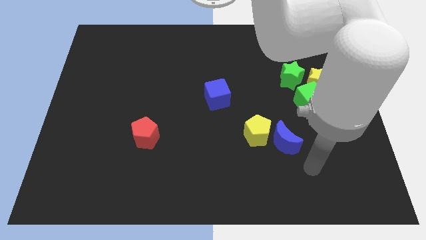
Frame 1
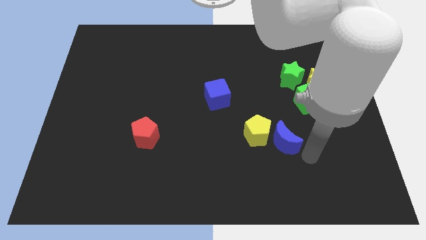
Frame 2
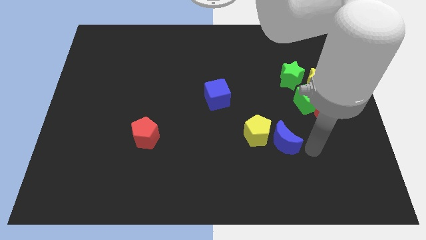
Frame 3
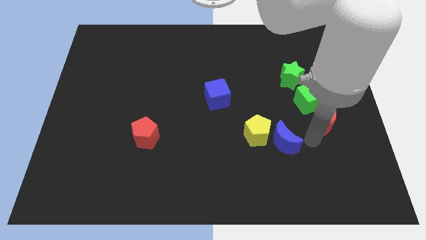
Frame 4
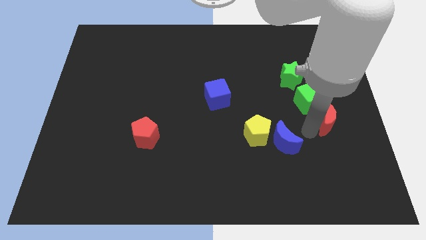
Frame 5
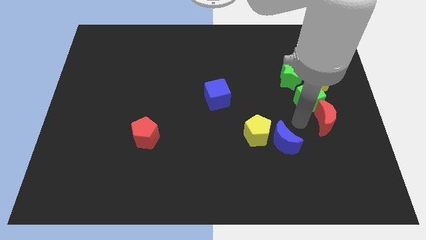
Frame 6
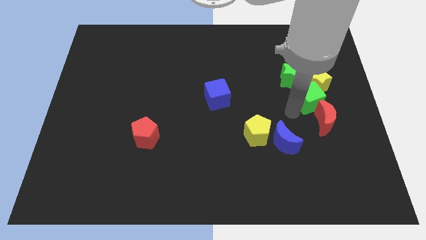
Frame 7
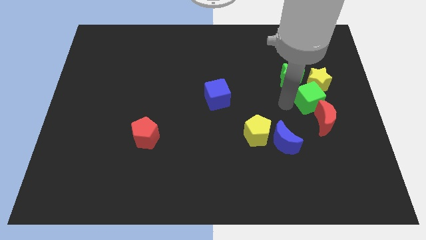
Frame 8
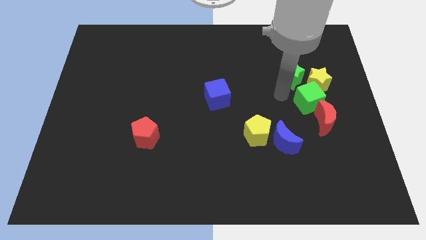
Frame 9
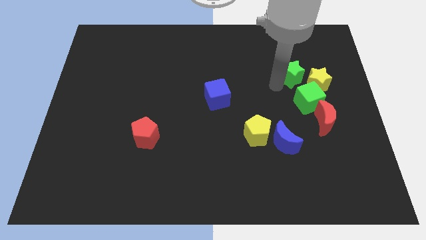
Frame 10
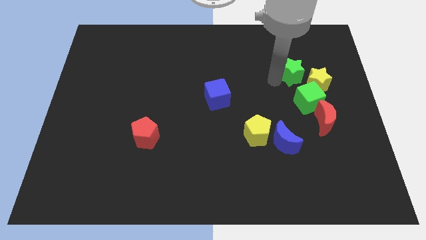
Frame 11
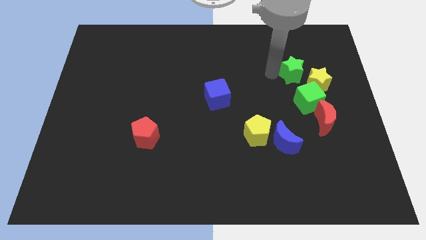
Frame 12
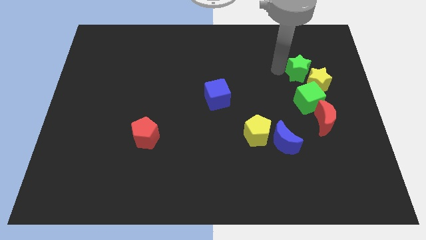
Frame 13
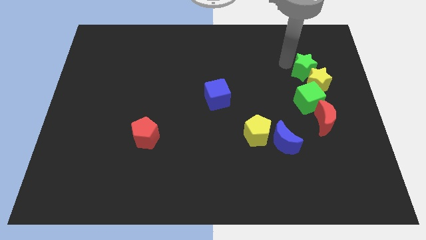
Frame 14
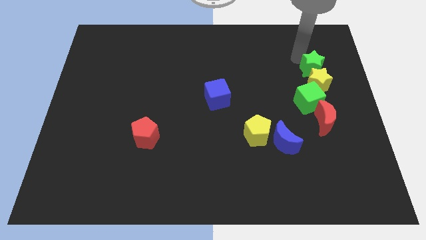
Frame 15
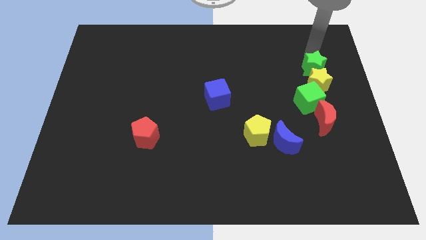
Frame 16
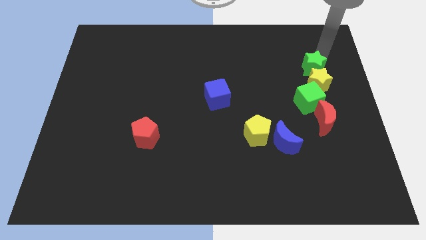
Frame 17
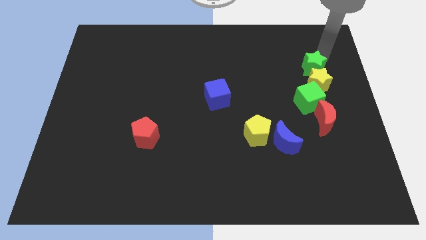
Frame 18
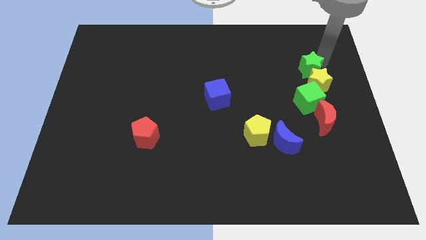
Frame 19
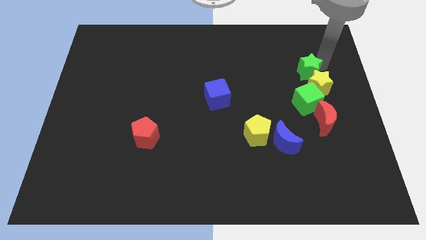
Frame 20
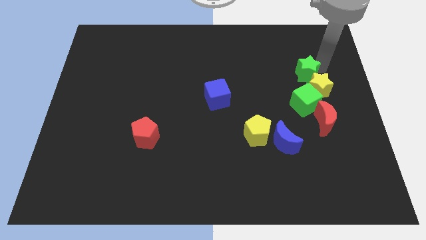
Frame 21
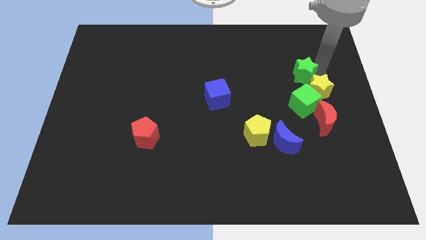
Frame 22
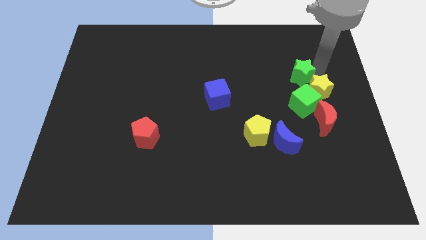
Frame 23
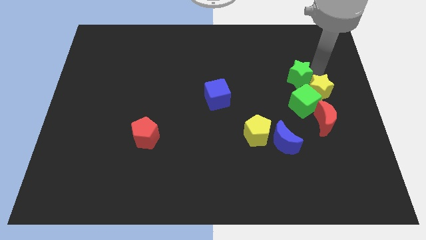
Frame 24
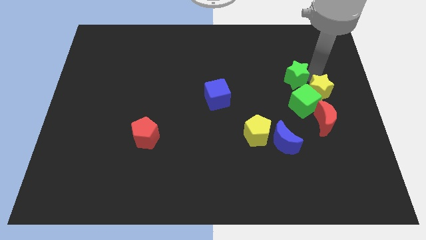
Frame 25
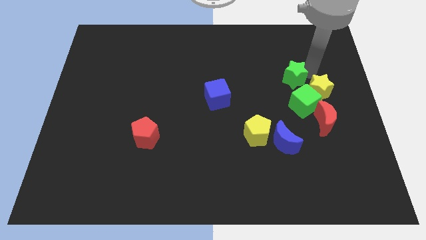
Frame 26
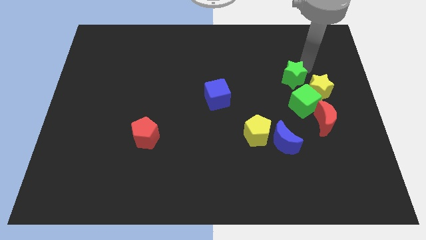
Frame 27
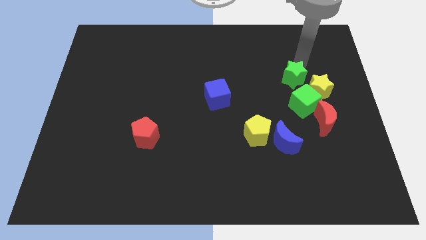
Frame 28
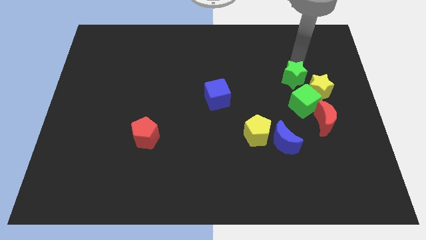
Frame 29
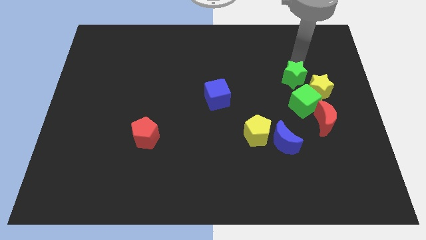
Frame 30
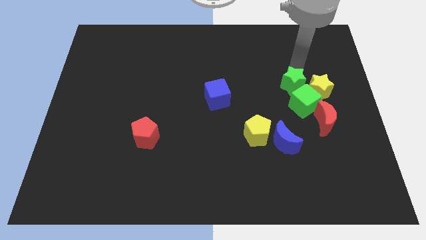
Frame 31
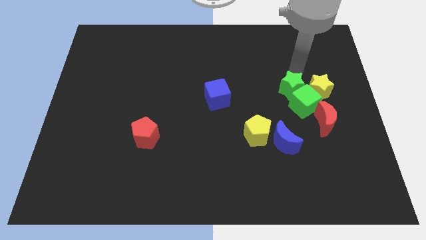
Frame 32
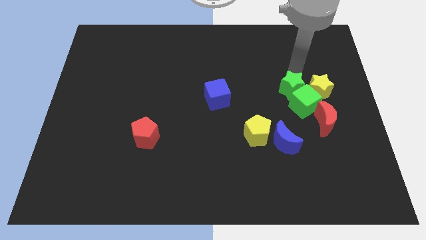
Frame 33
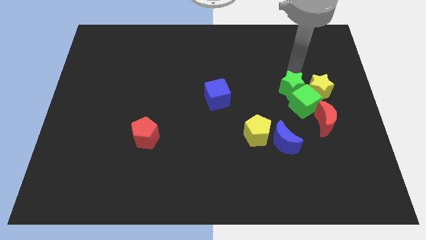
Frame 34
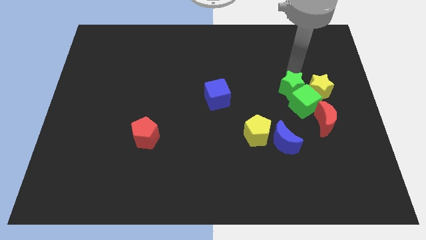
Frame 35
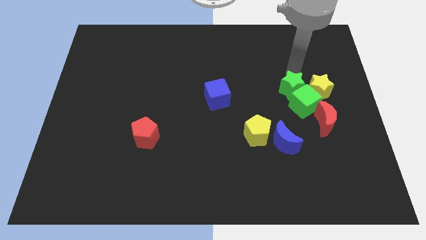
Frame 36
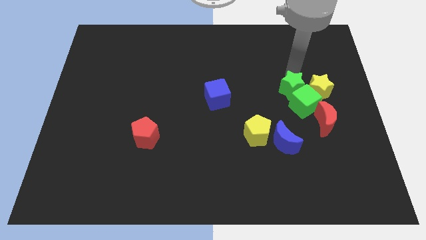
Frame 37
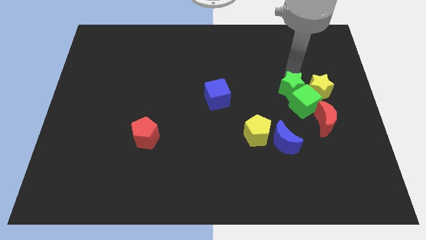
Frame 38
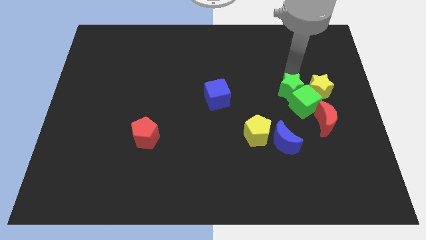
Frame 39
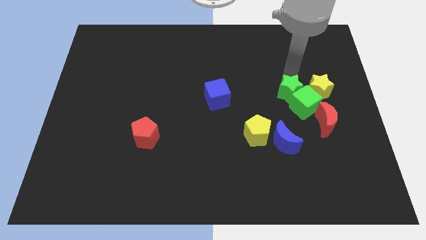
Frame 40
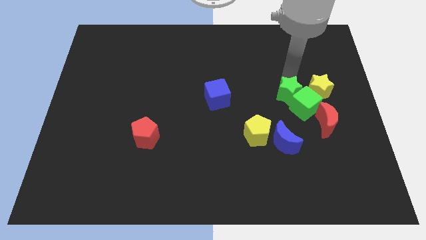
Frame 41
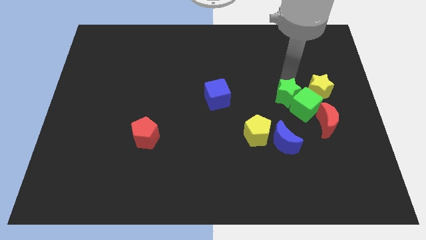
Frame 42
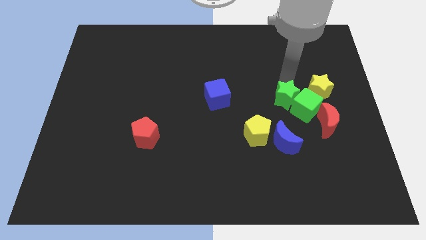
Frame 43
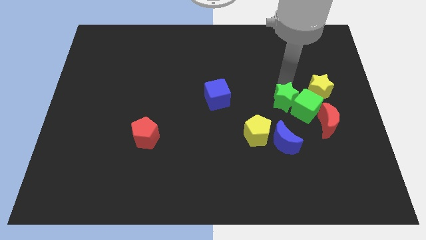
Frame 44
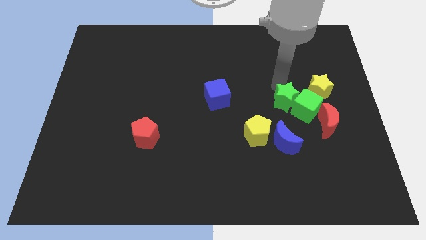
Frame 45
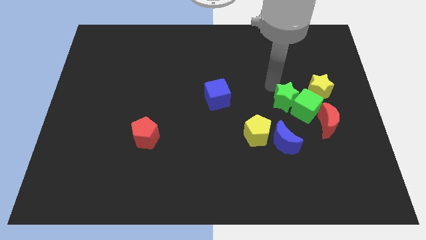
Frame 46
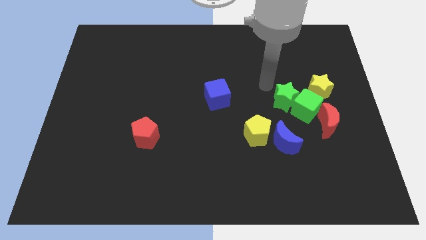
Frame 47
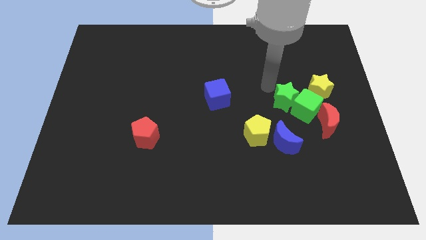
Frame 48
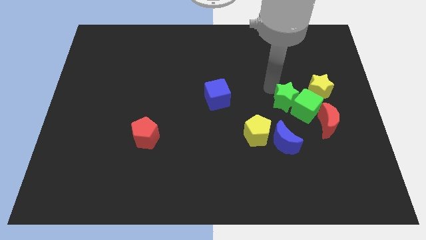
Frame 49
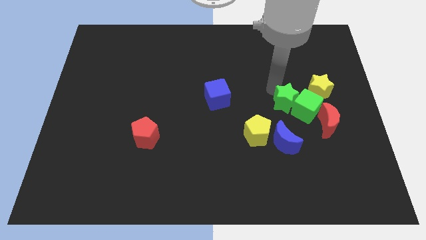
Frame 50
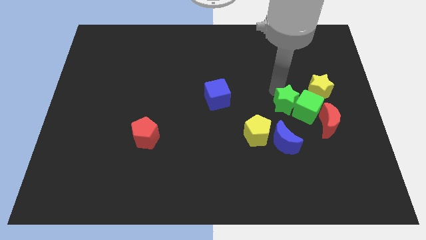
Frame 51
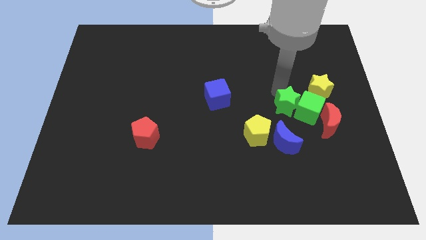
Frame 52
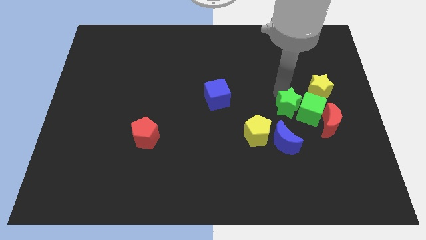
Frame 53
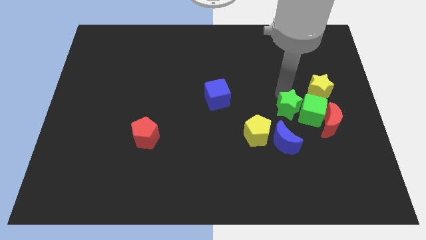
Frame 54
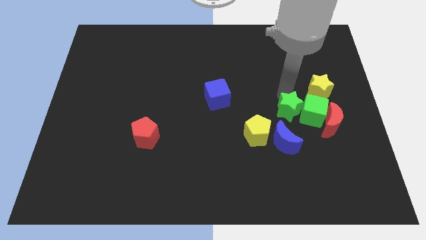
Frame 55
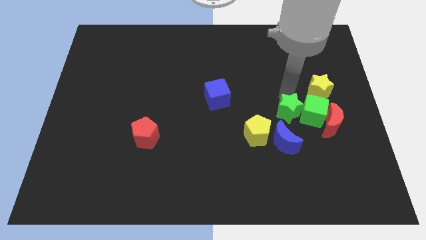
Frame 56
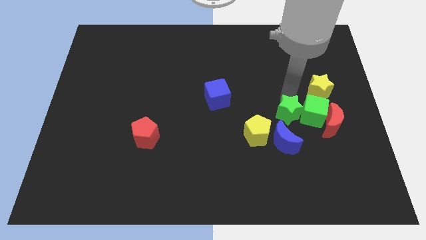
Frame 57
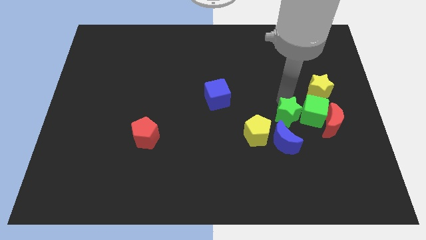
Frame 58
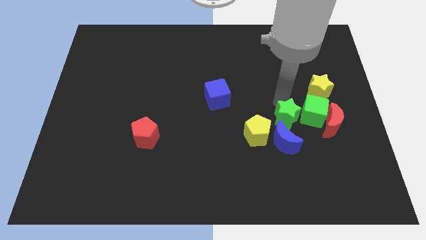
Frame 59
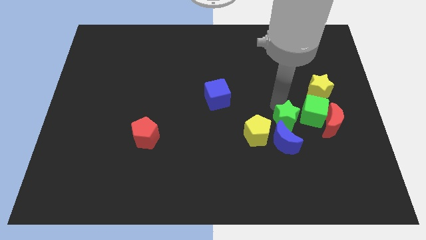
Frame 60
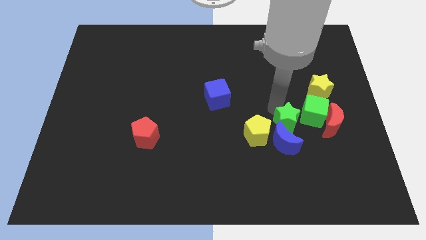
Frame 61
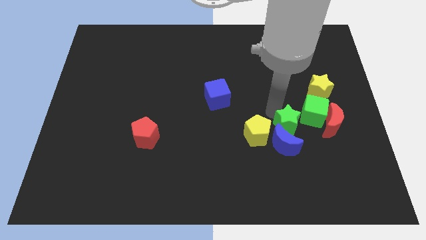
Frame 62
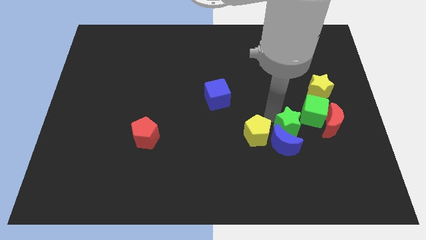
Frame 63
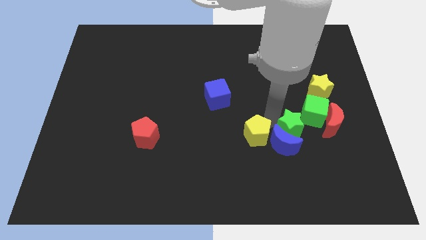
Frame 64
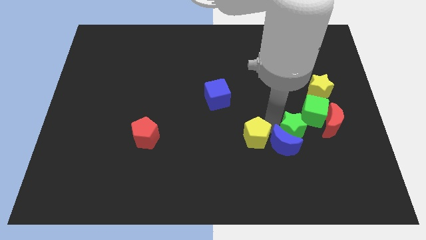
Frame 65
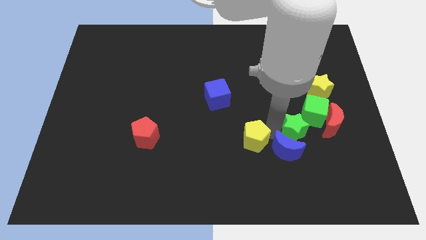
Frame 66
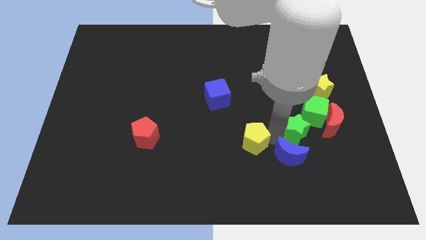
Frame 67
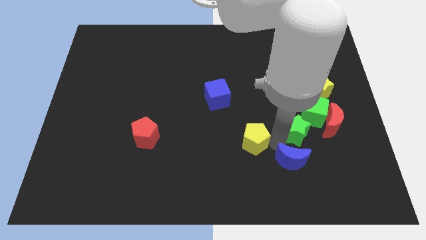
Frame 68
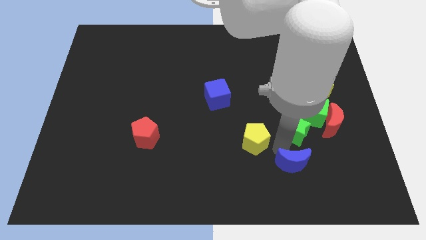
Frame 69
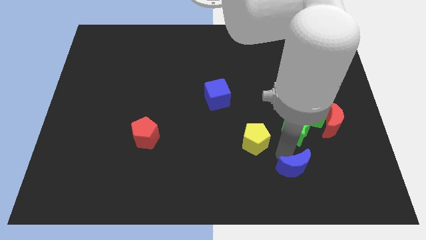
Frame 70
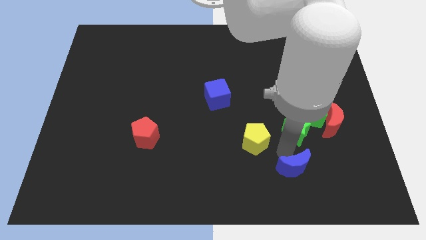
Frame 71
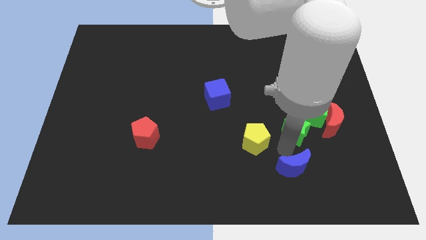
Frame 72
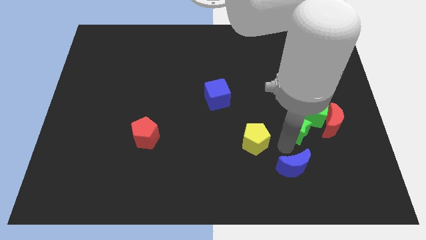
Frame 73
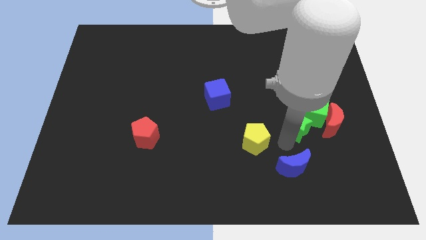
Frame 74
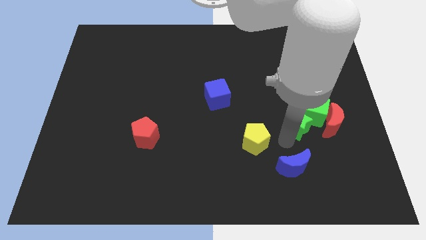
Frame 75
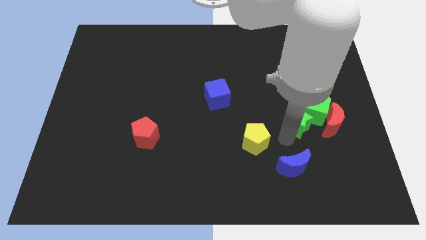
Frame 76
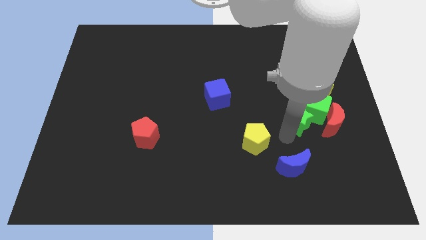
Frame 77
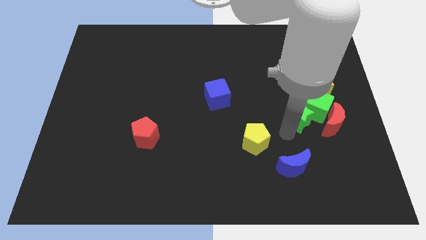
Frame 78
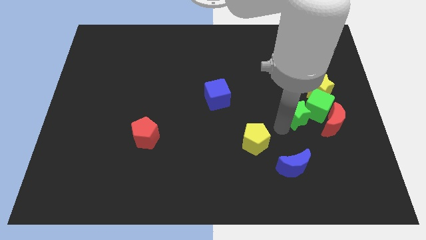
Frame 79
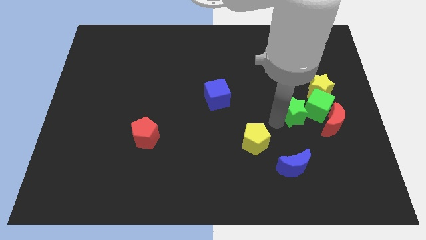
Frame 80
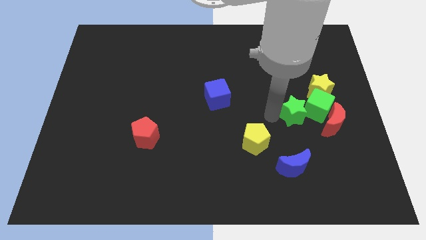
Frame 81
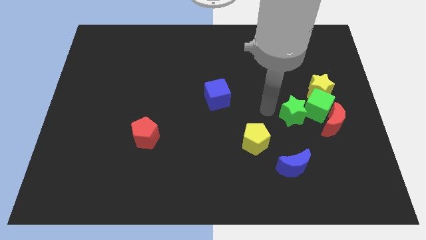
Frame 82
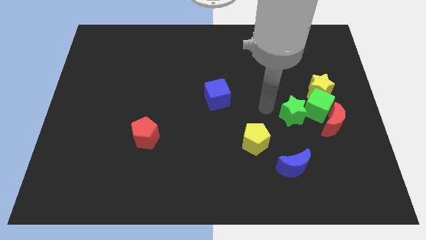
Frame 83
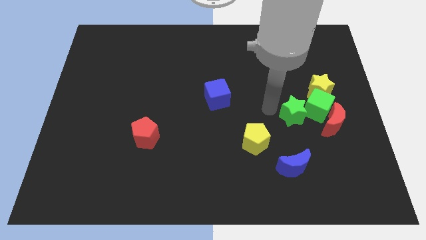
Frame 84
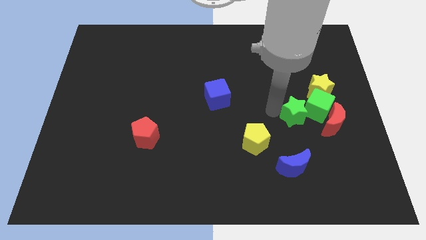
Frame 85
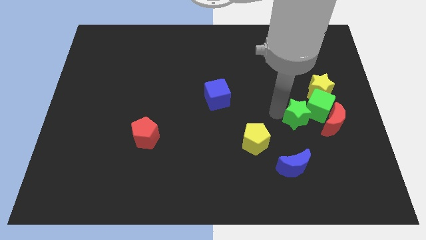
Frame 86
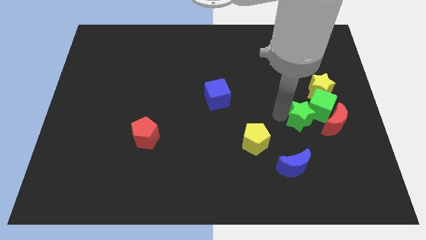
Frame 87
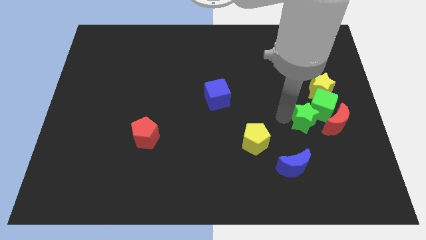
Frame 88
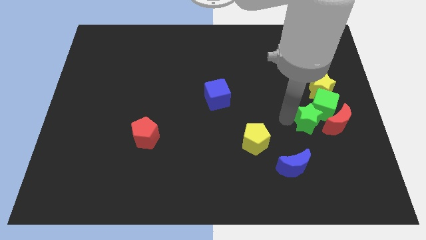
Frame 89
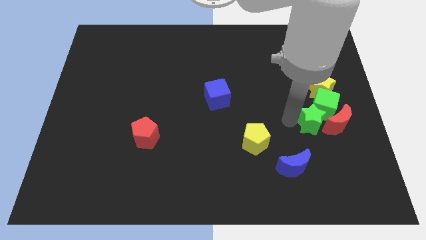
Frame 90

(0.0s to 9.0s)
slide the green star close to the red moon
